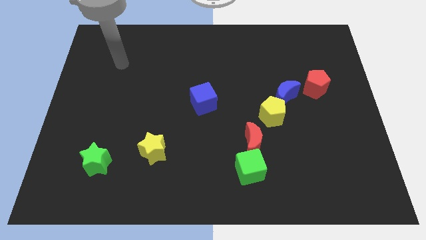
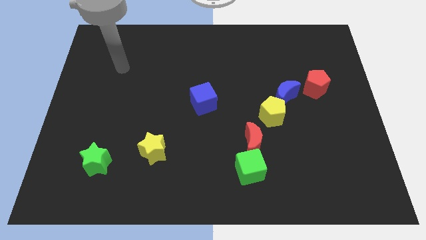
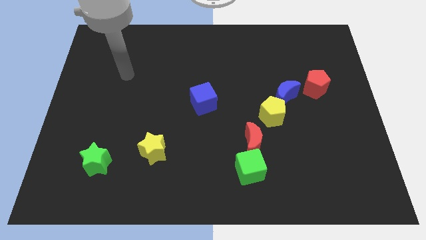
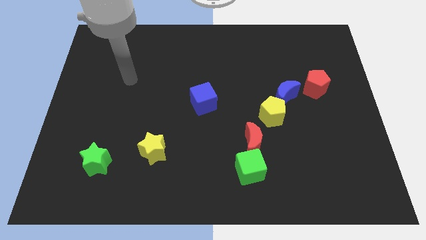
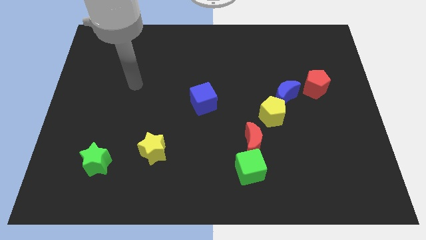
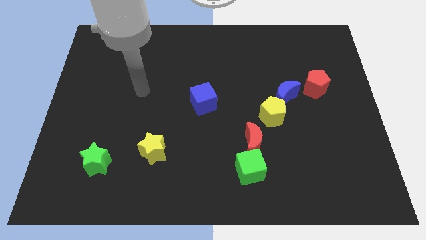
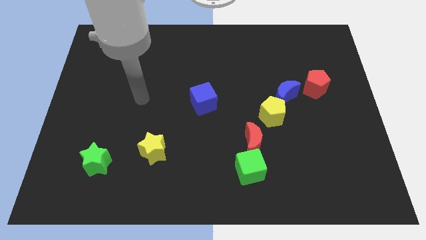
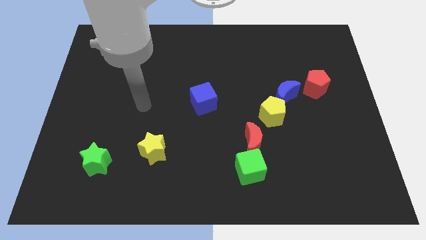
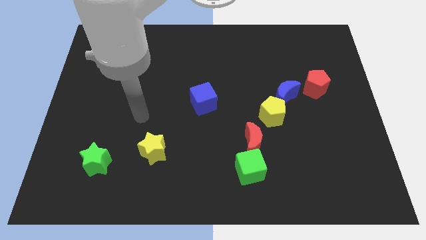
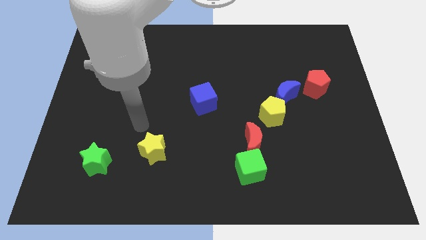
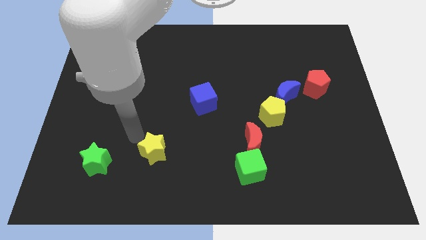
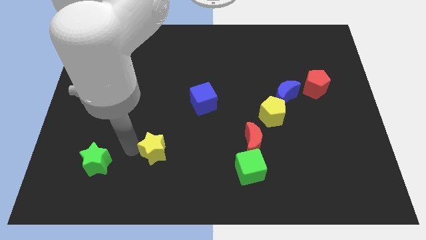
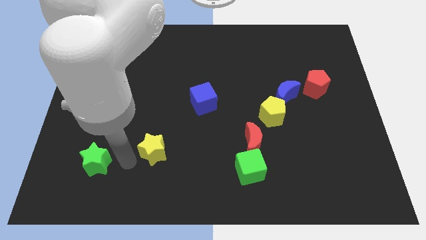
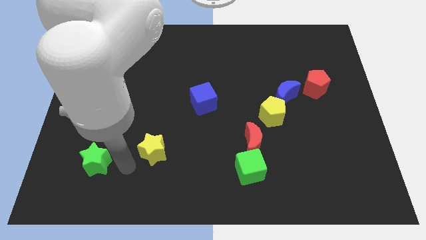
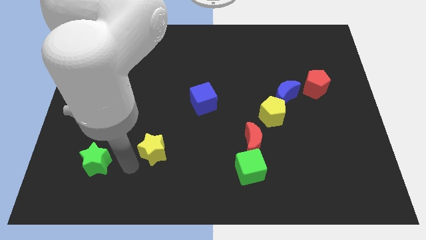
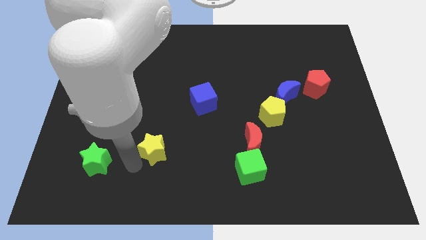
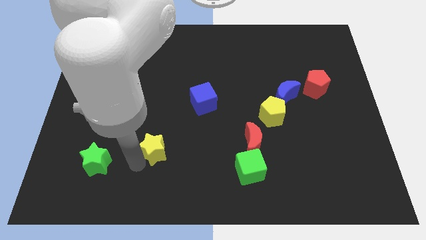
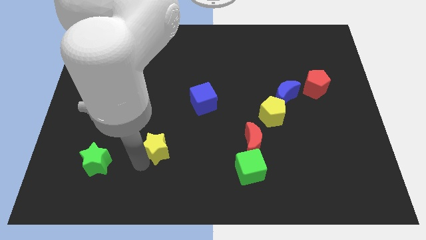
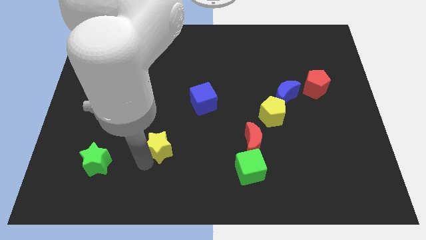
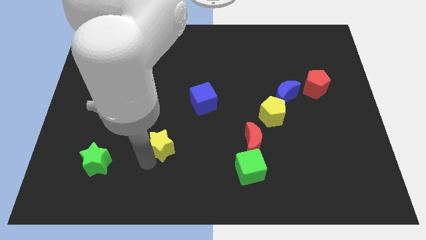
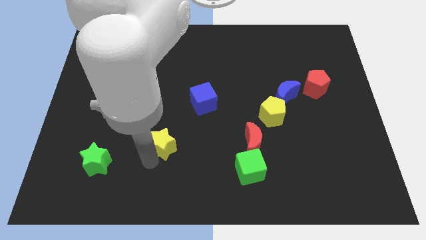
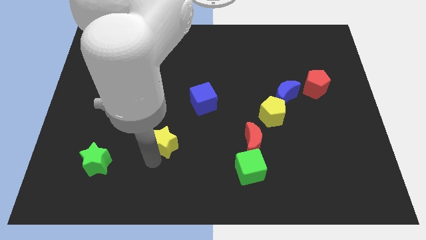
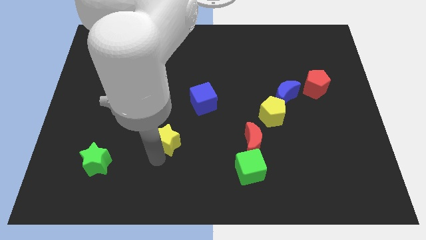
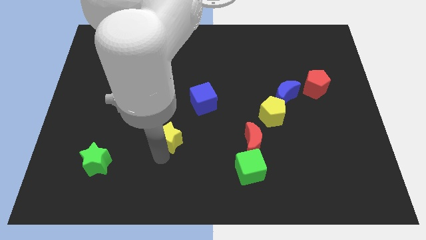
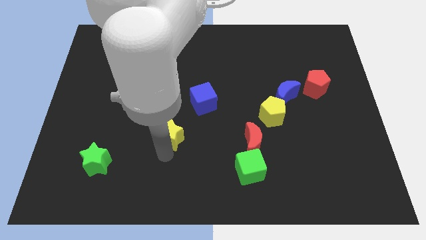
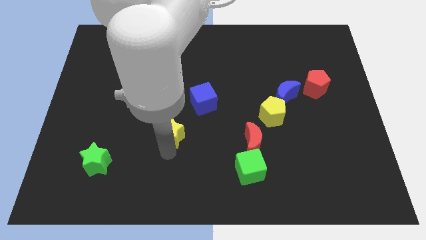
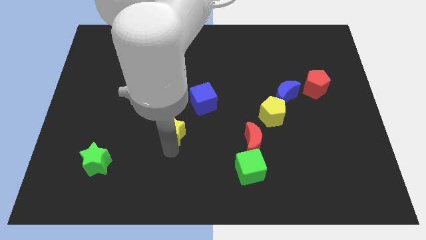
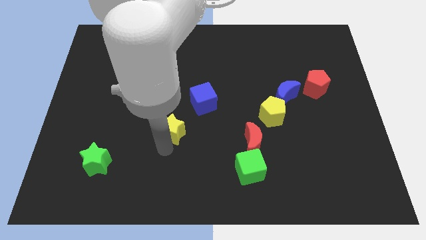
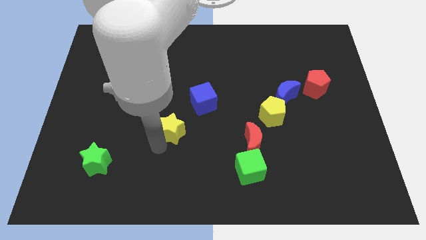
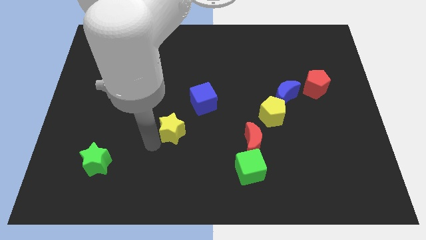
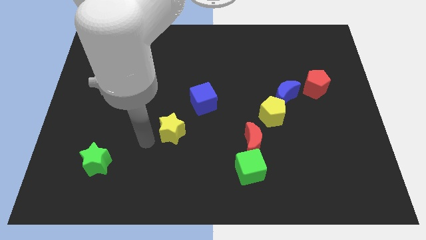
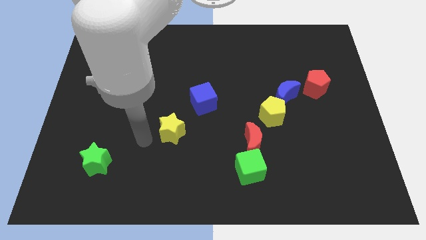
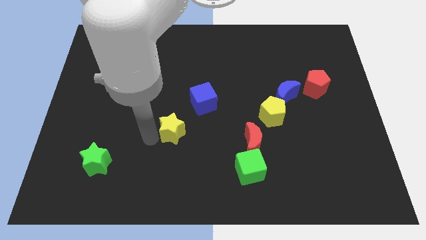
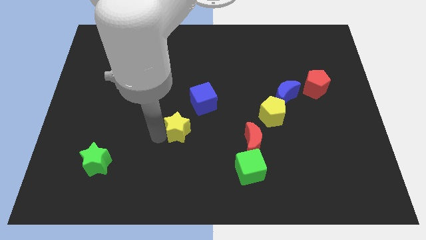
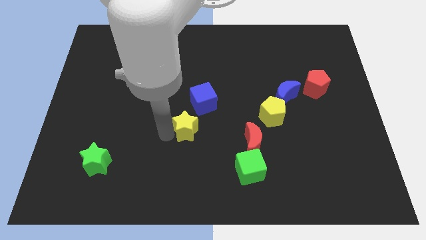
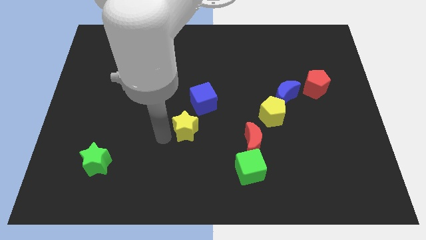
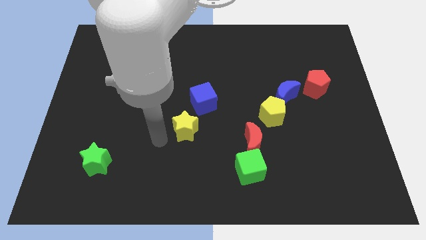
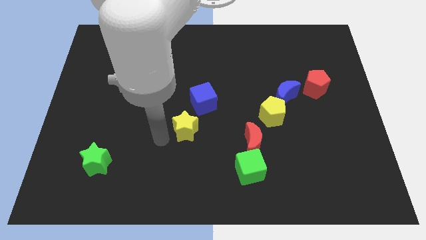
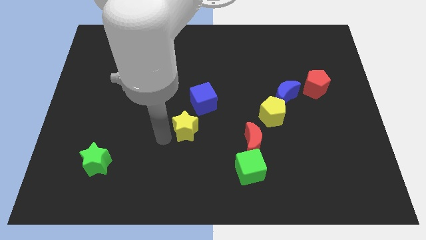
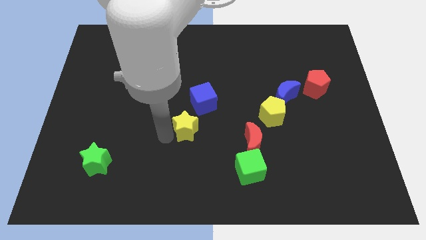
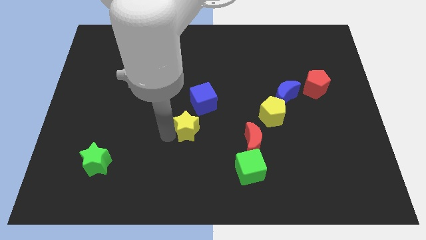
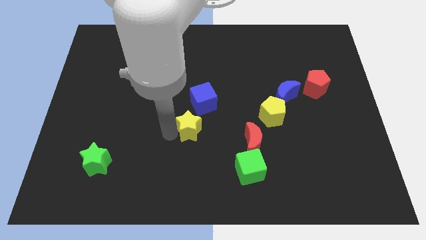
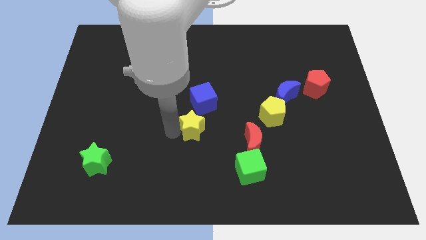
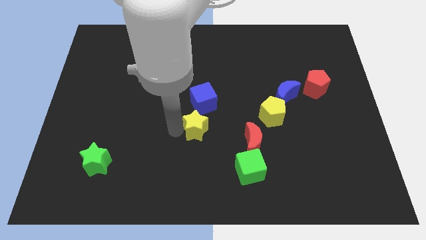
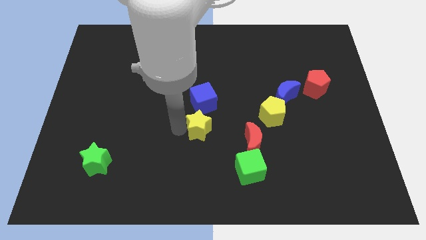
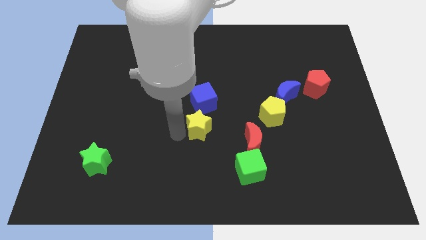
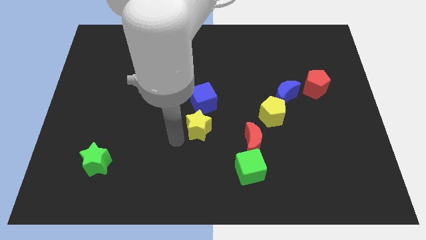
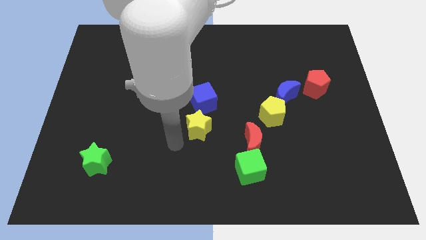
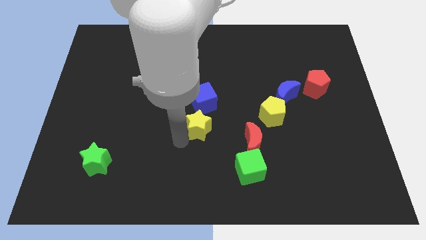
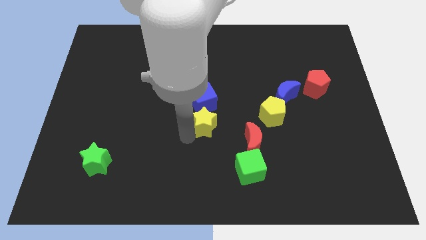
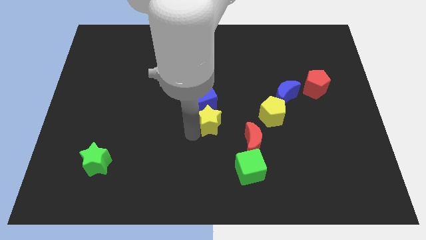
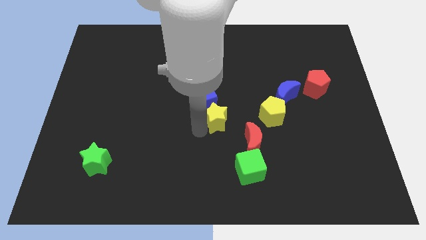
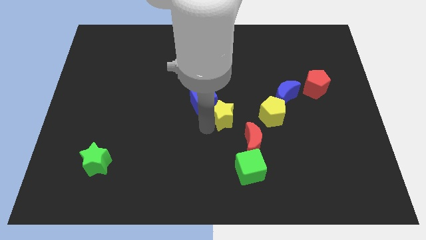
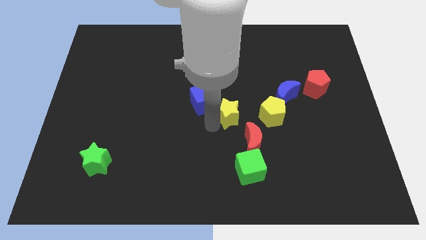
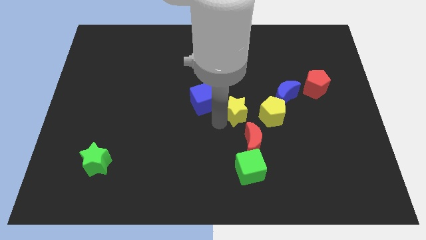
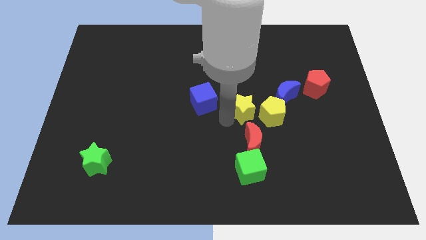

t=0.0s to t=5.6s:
slide the yellow star to the top left of the yellow pentagon

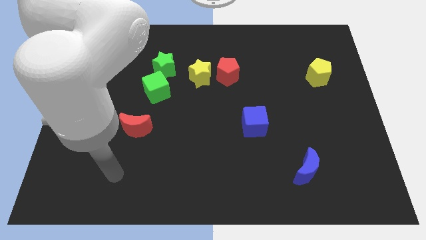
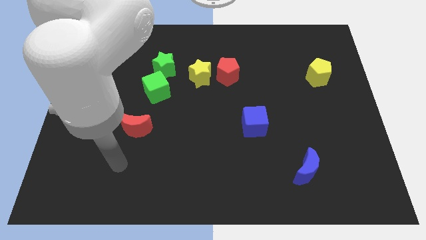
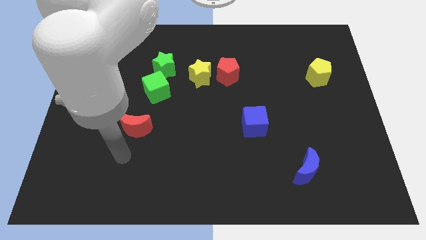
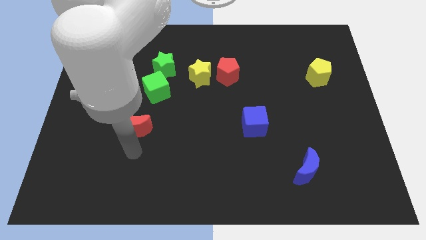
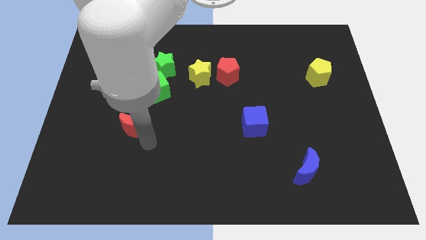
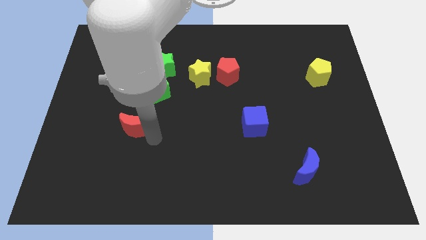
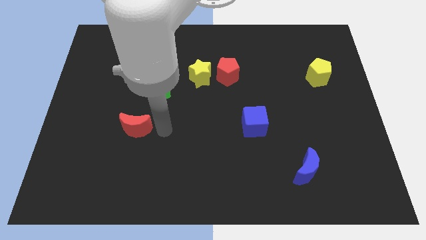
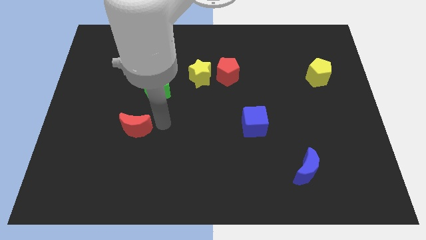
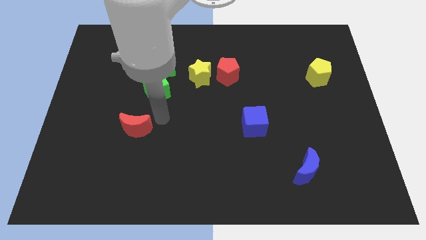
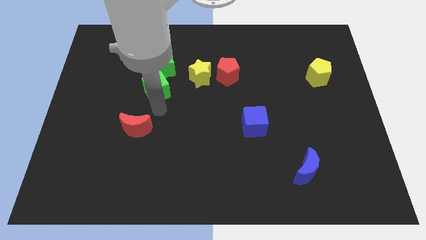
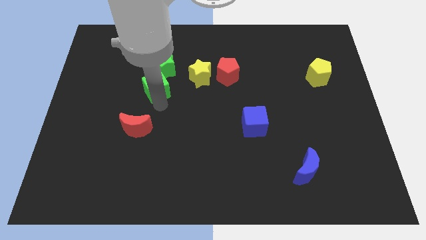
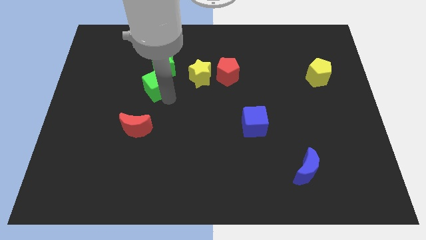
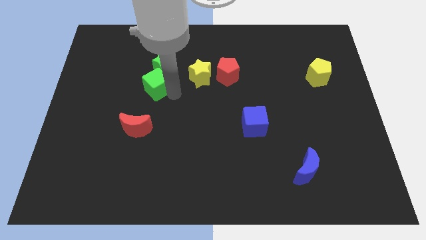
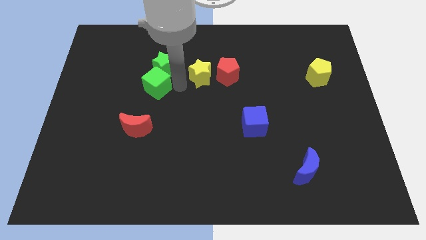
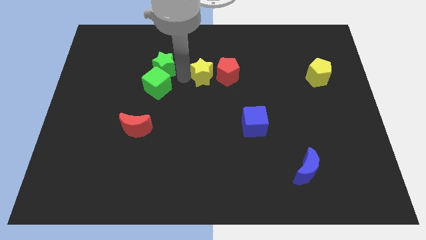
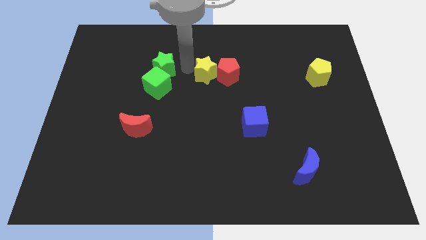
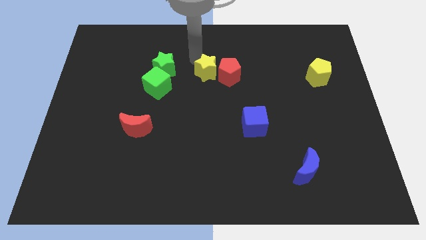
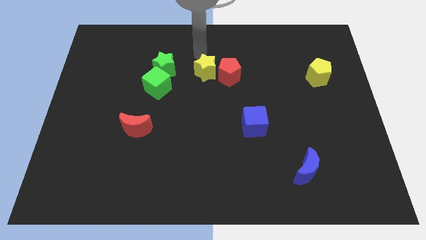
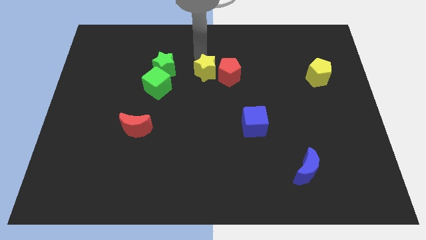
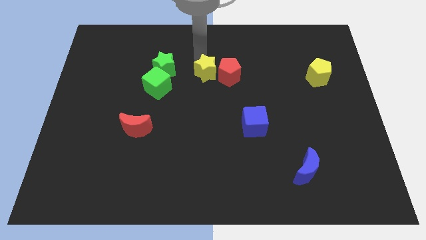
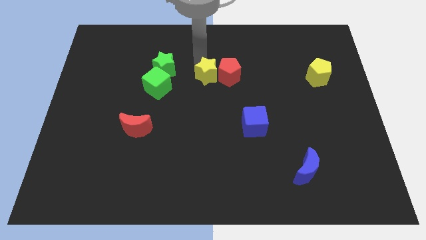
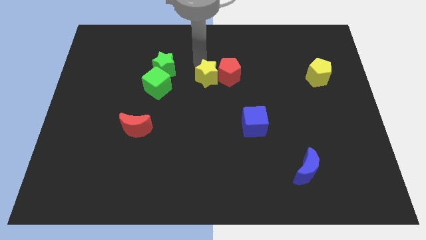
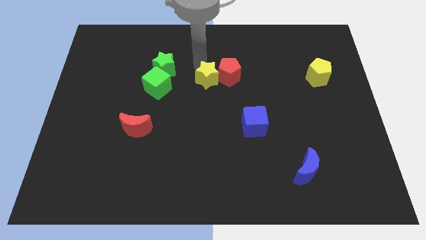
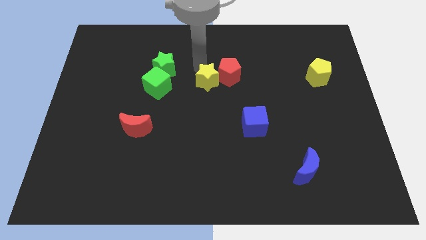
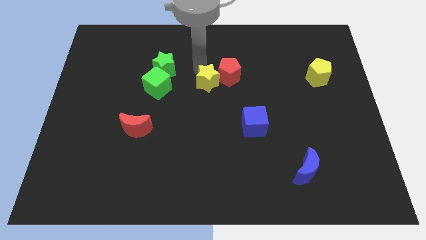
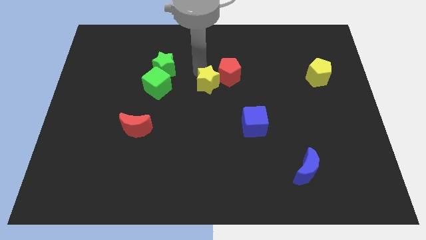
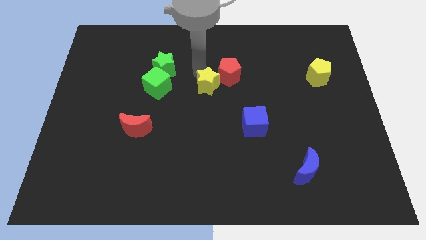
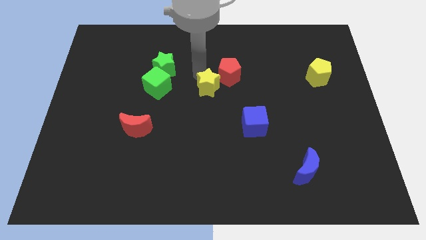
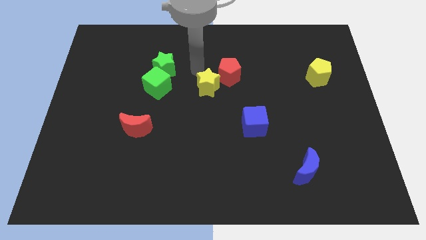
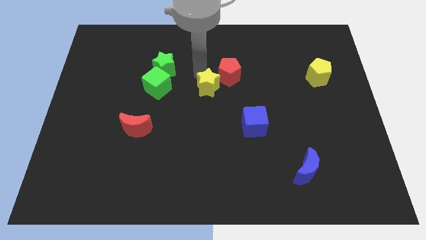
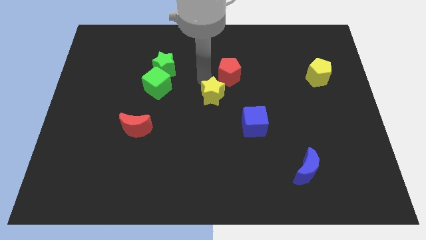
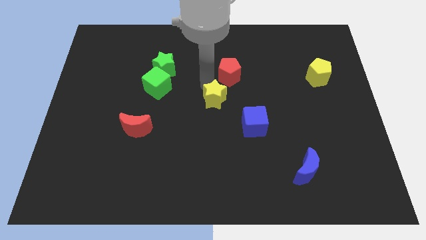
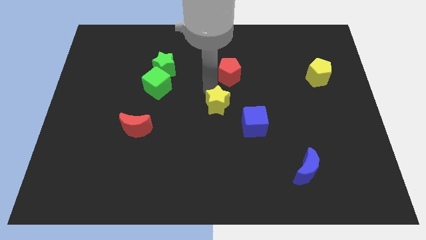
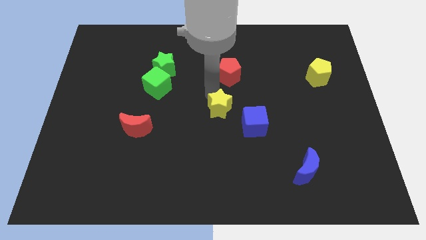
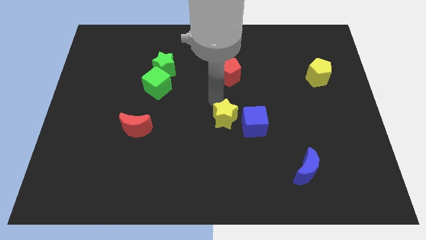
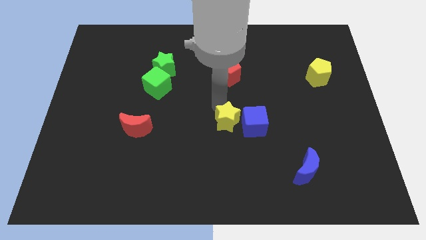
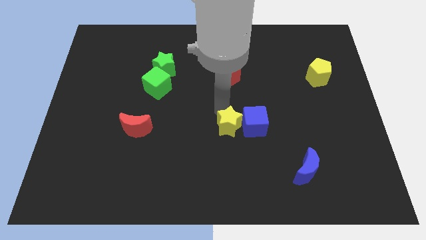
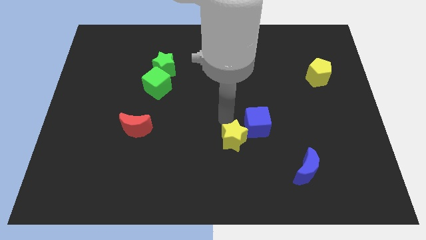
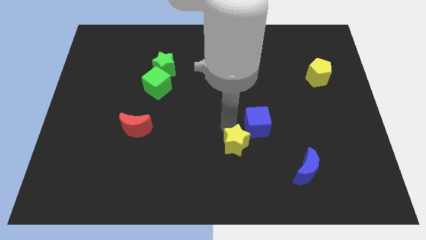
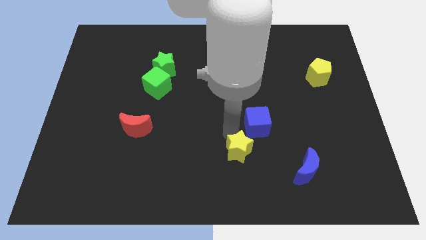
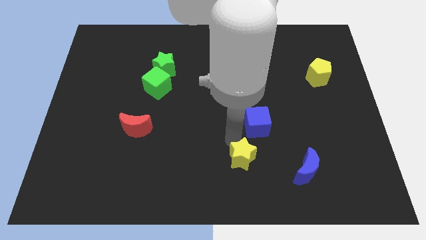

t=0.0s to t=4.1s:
put the yellow star to the left side of the blue moon
